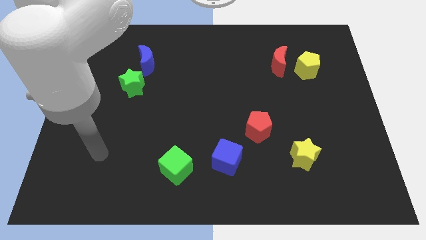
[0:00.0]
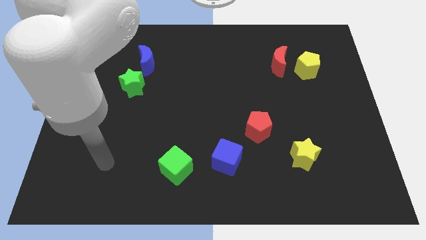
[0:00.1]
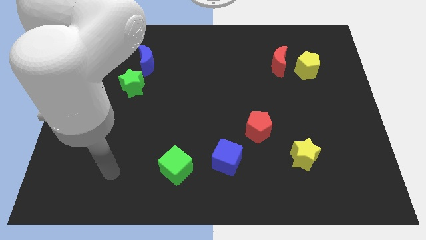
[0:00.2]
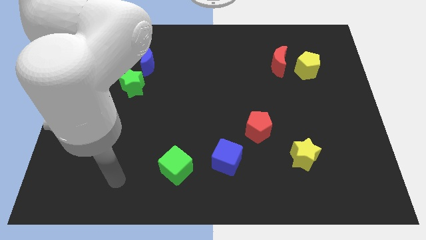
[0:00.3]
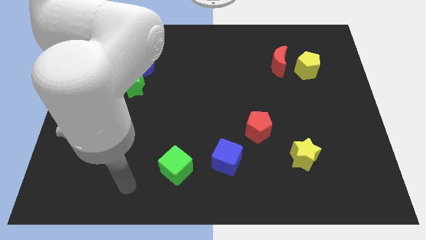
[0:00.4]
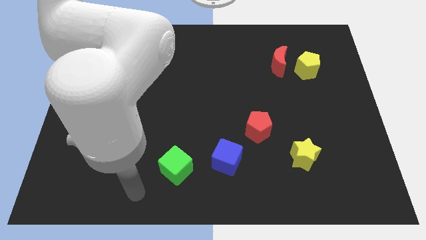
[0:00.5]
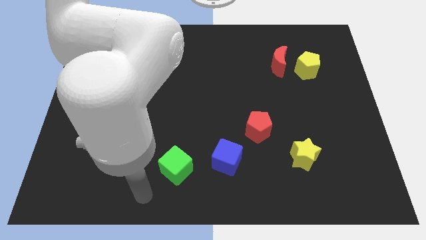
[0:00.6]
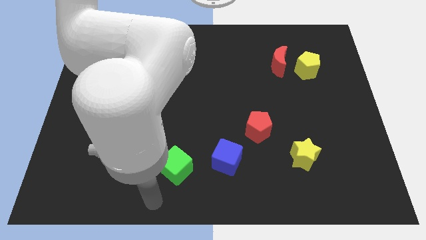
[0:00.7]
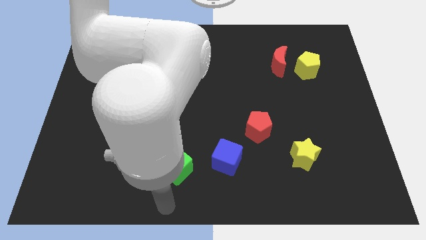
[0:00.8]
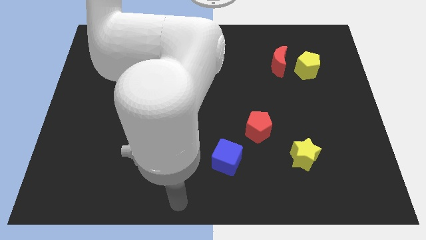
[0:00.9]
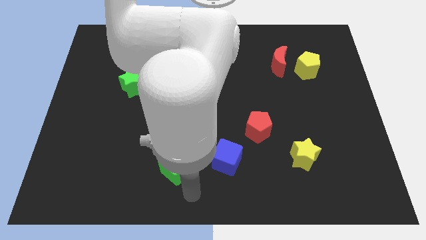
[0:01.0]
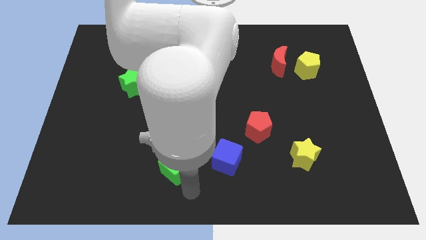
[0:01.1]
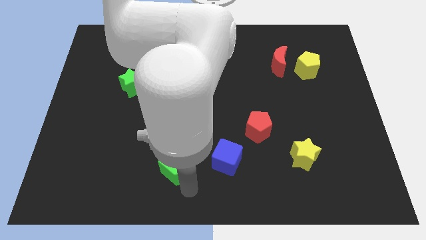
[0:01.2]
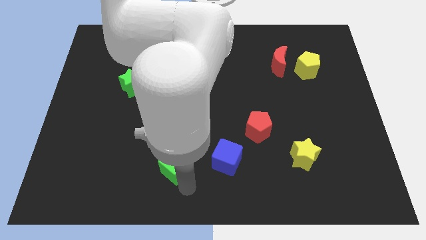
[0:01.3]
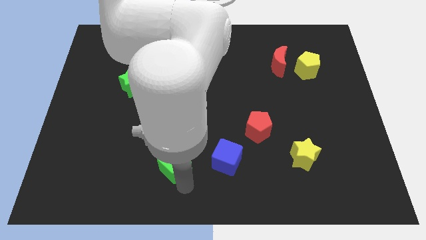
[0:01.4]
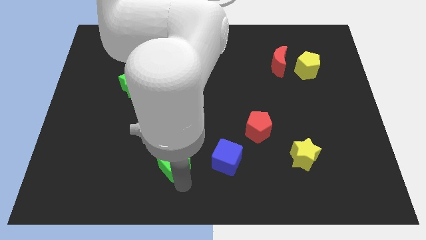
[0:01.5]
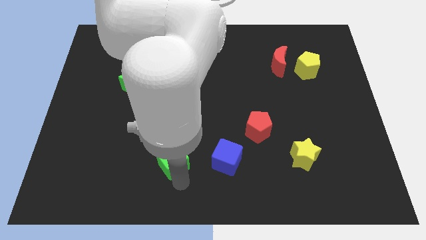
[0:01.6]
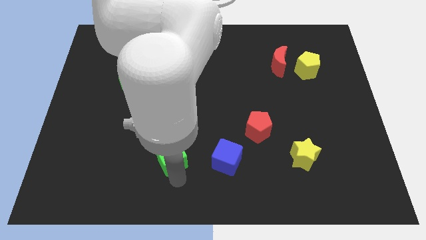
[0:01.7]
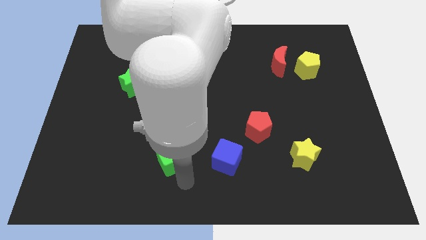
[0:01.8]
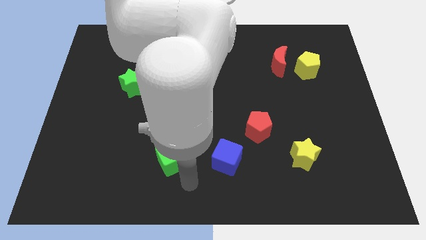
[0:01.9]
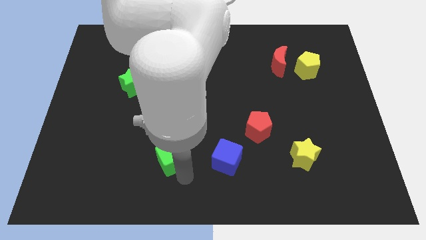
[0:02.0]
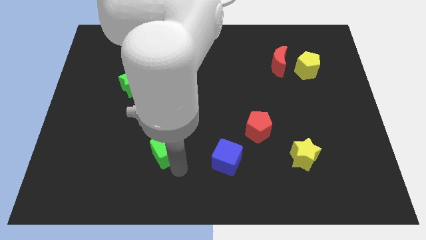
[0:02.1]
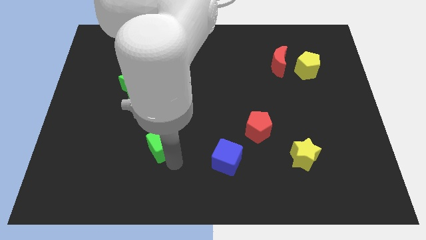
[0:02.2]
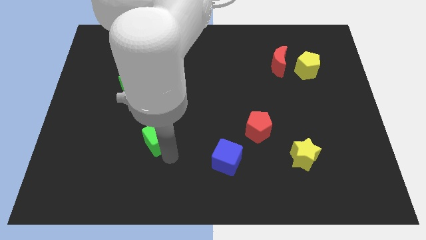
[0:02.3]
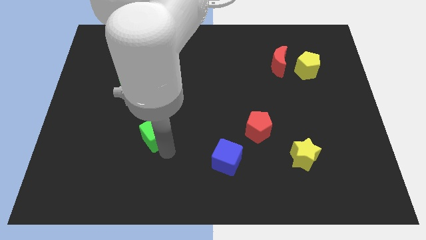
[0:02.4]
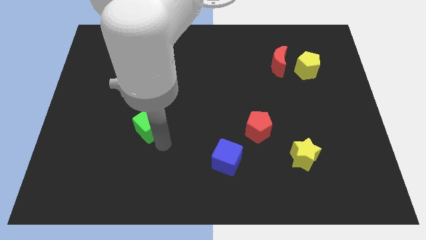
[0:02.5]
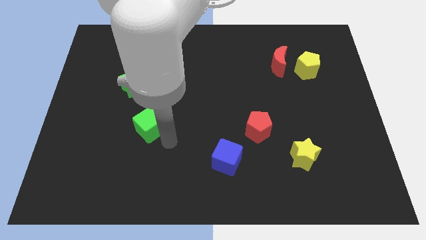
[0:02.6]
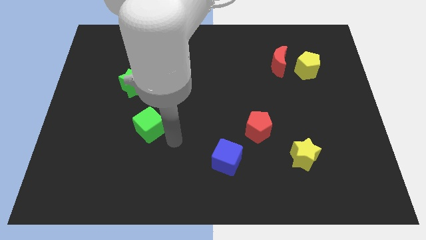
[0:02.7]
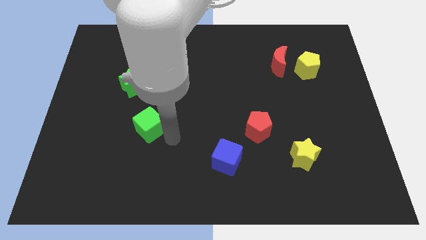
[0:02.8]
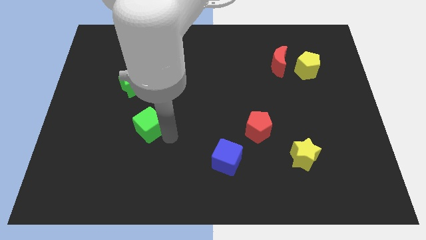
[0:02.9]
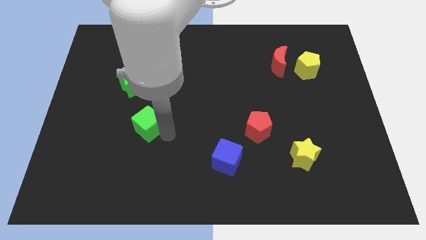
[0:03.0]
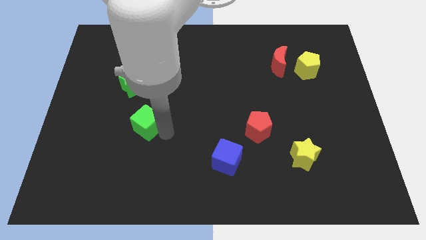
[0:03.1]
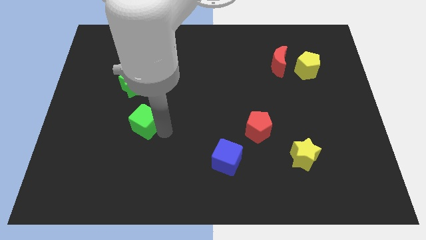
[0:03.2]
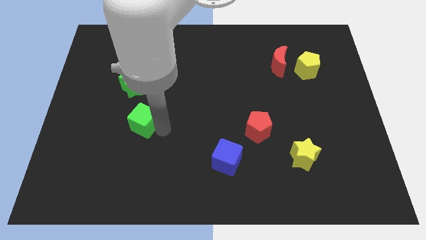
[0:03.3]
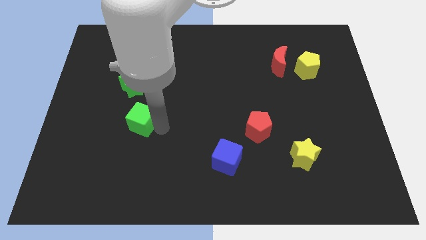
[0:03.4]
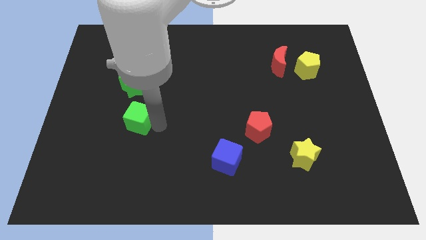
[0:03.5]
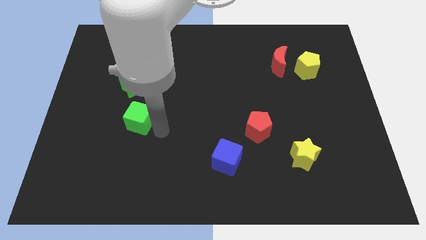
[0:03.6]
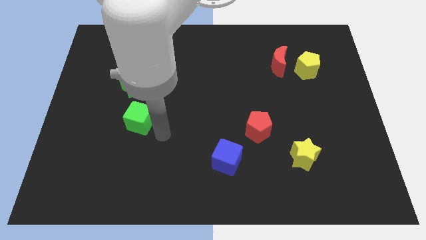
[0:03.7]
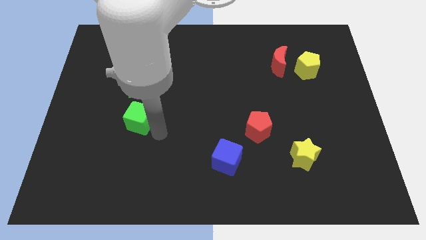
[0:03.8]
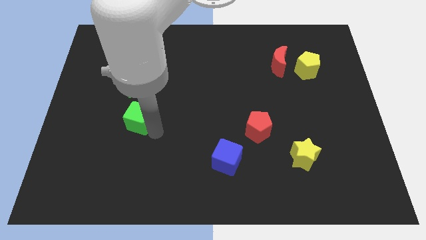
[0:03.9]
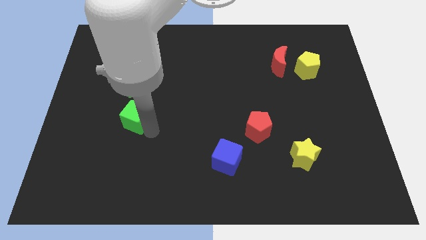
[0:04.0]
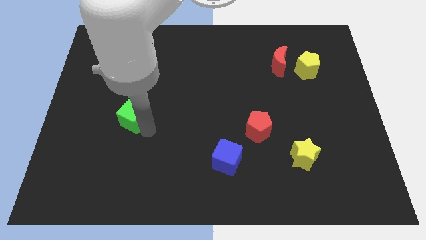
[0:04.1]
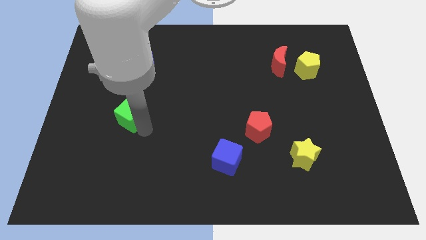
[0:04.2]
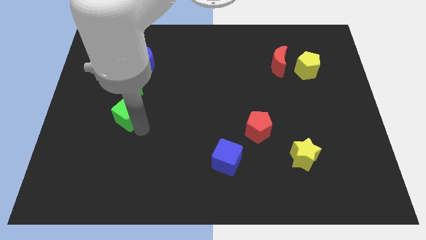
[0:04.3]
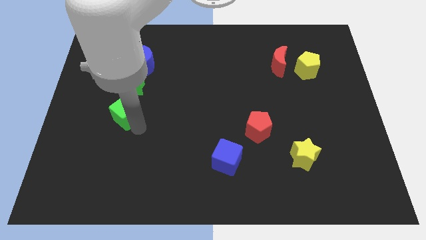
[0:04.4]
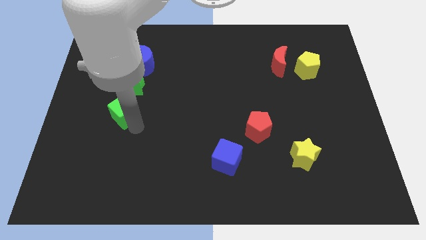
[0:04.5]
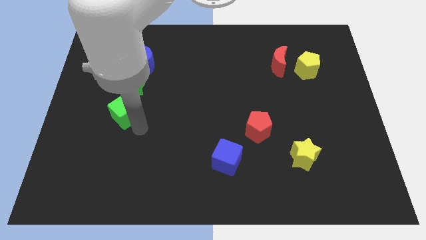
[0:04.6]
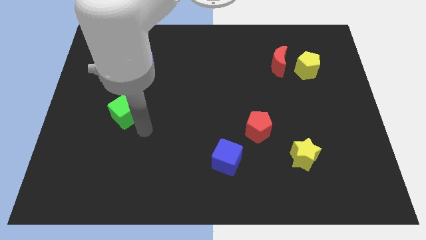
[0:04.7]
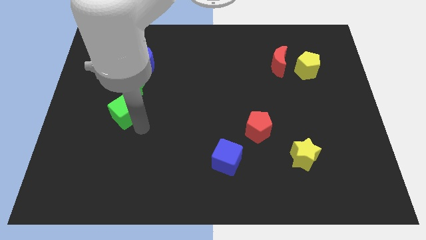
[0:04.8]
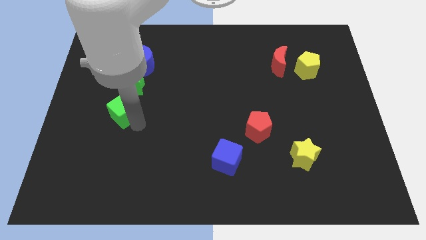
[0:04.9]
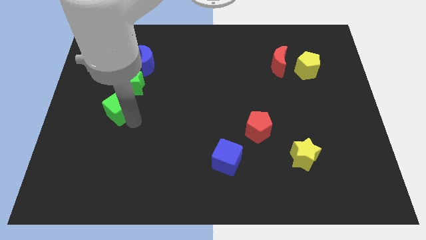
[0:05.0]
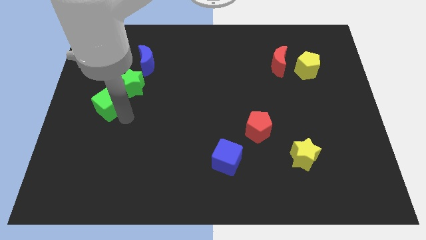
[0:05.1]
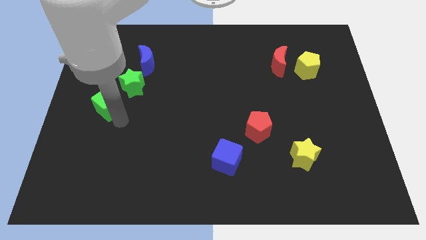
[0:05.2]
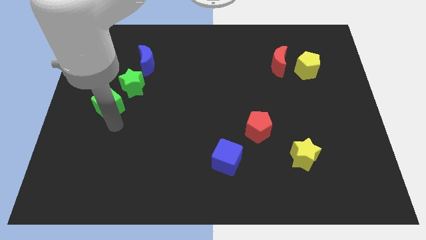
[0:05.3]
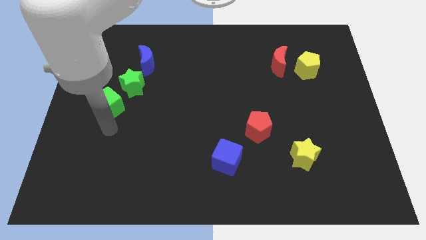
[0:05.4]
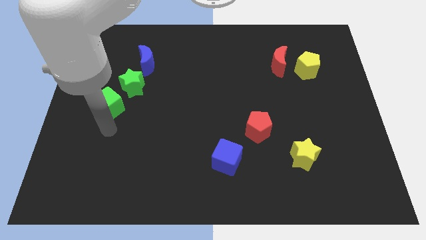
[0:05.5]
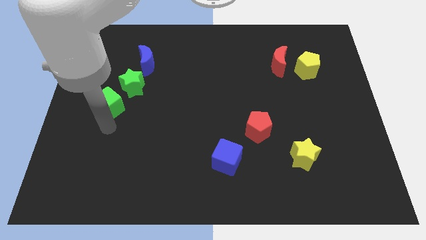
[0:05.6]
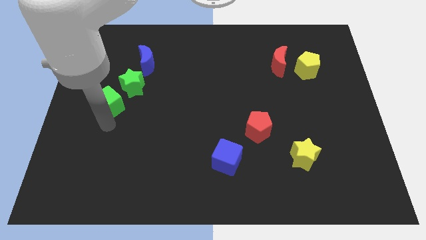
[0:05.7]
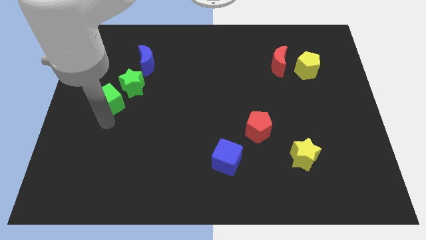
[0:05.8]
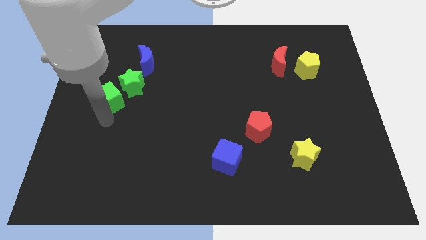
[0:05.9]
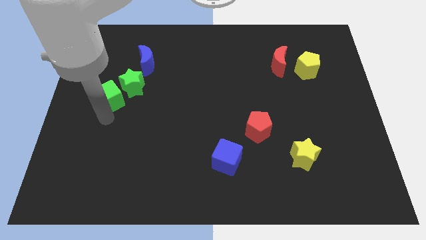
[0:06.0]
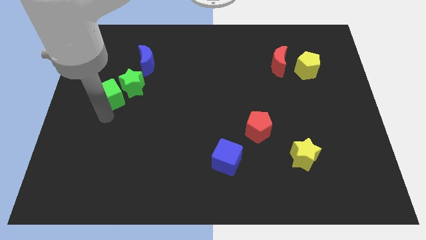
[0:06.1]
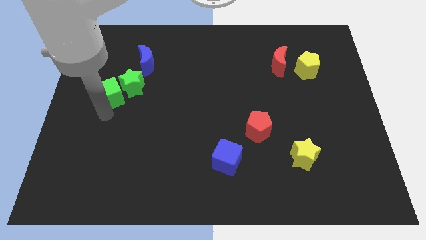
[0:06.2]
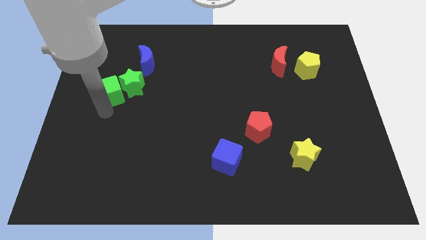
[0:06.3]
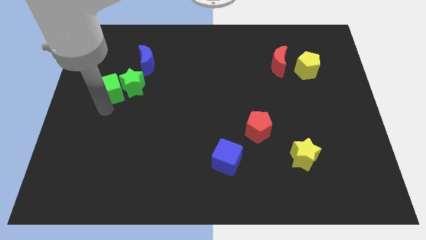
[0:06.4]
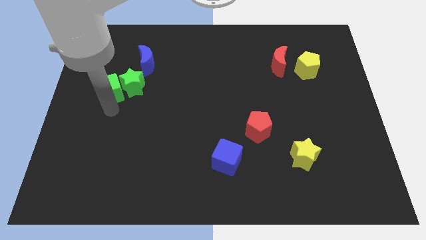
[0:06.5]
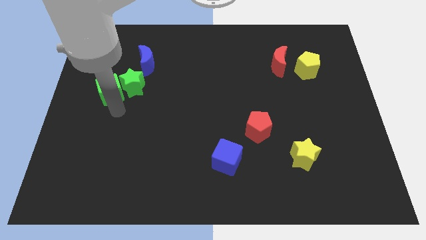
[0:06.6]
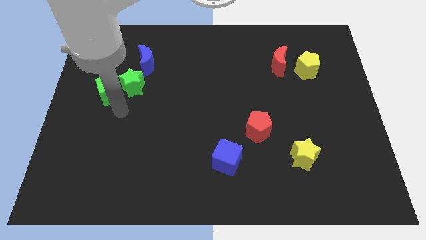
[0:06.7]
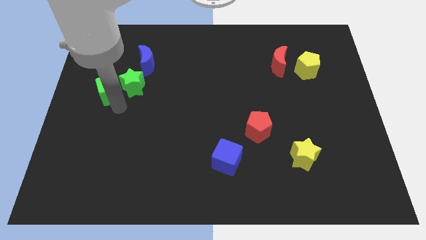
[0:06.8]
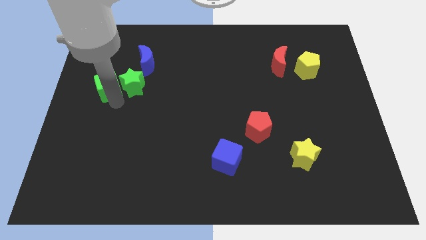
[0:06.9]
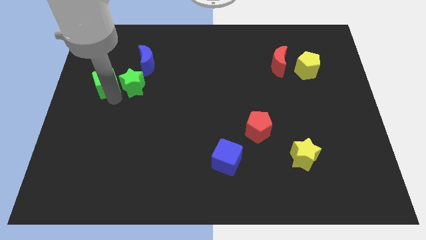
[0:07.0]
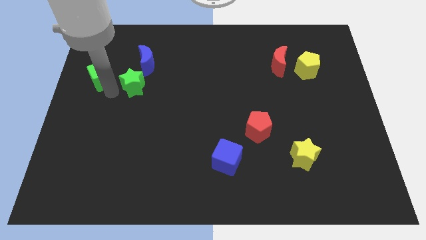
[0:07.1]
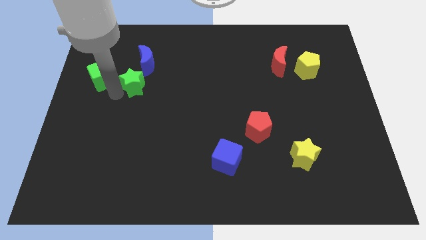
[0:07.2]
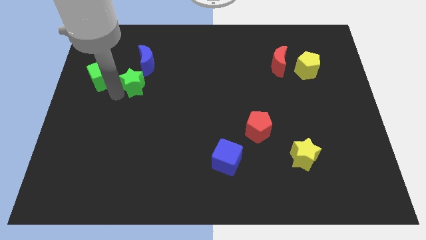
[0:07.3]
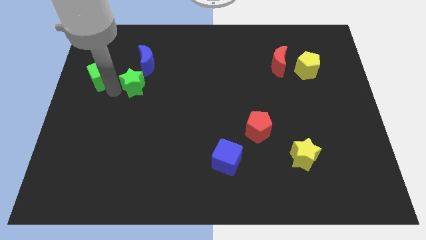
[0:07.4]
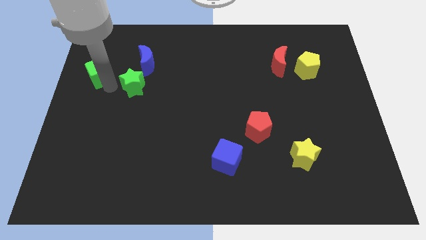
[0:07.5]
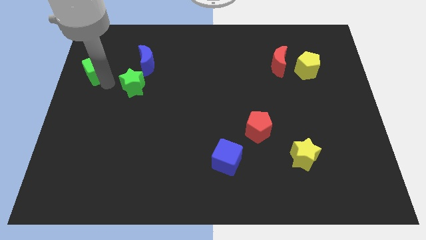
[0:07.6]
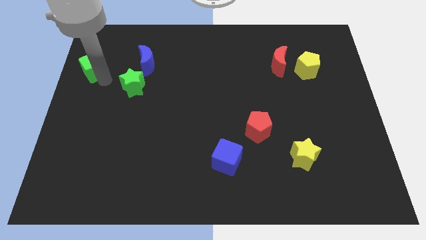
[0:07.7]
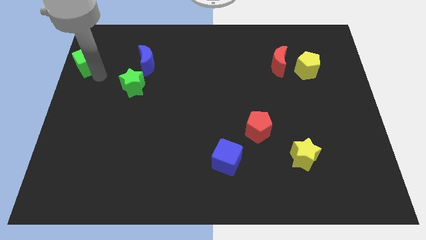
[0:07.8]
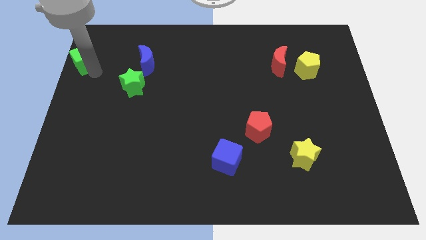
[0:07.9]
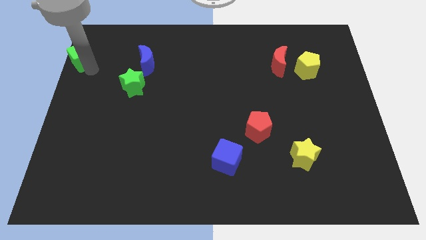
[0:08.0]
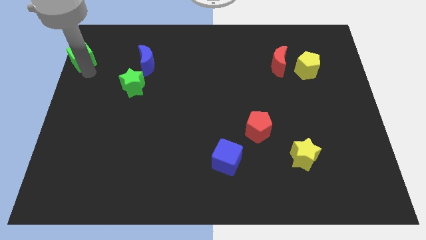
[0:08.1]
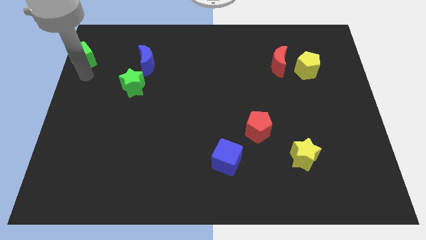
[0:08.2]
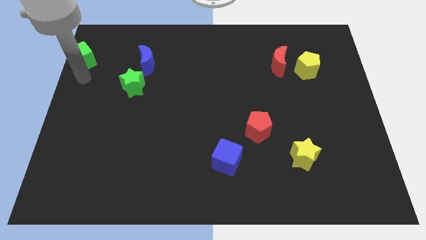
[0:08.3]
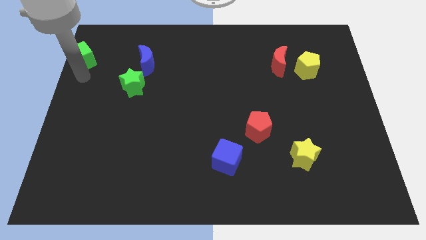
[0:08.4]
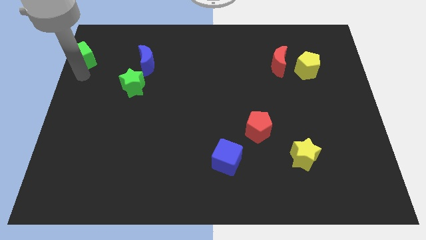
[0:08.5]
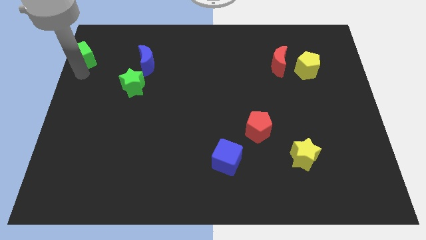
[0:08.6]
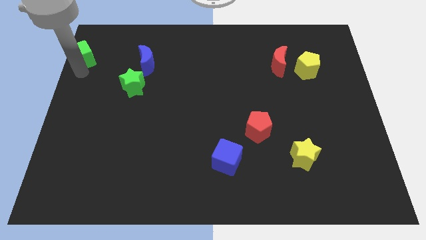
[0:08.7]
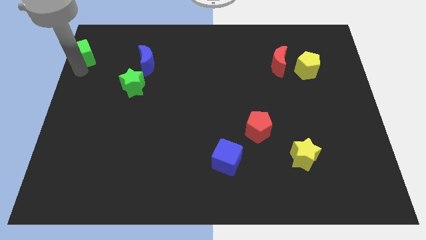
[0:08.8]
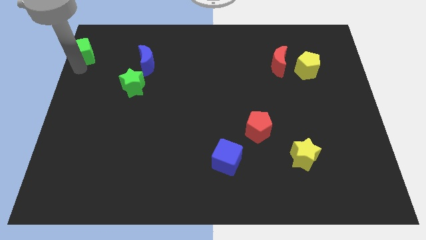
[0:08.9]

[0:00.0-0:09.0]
put the green cube to the top left corner
